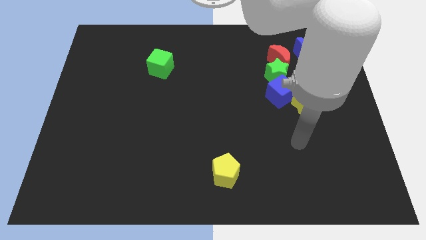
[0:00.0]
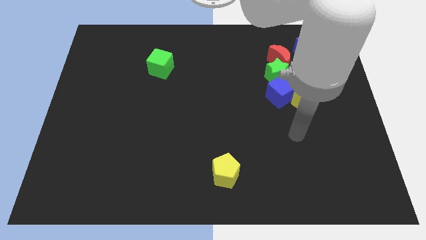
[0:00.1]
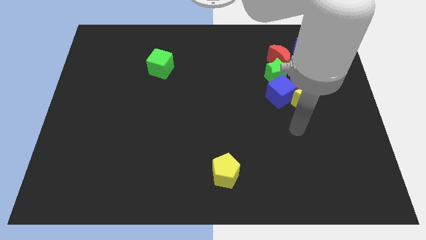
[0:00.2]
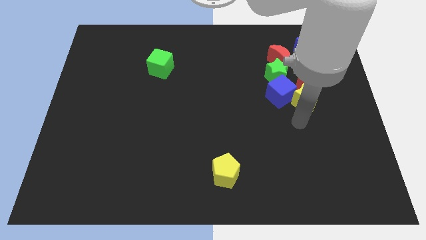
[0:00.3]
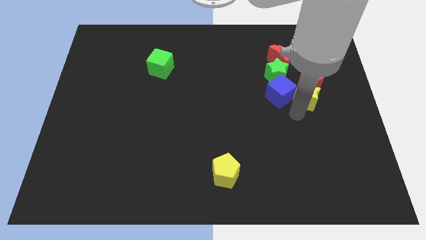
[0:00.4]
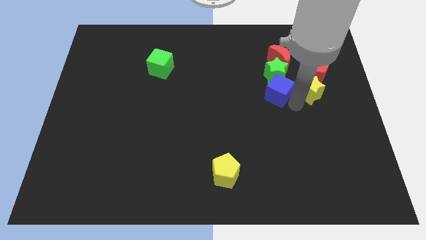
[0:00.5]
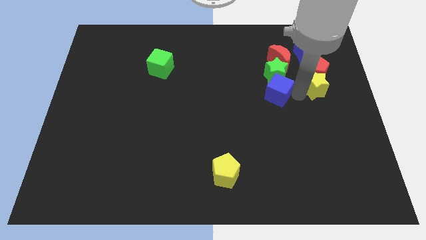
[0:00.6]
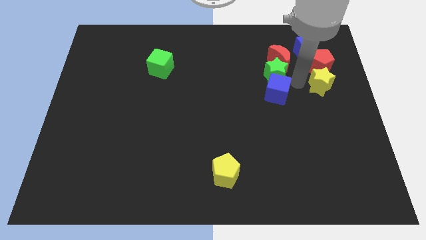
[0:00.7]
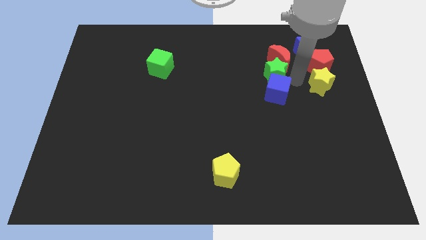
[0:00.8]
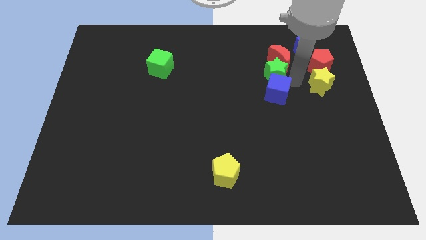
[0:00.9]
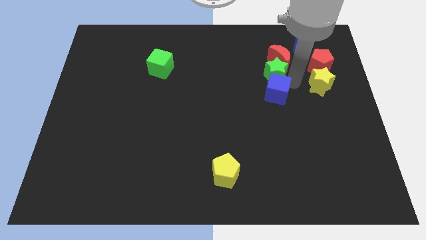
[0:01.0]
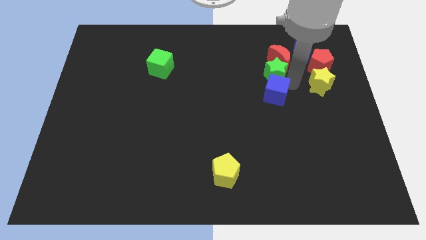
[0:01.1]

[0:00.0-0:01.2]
move the blue cube away from the clump

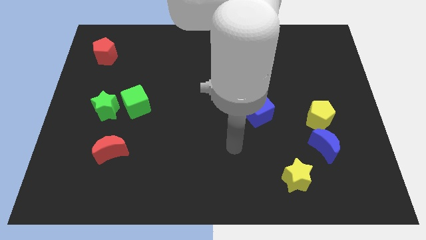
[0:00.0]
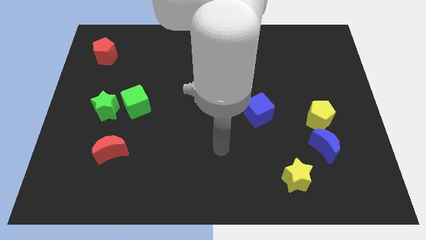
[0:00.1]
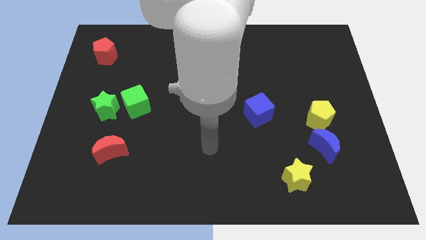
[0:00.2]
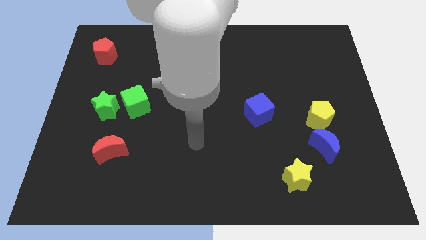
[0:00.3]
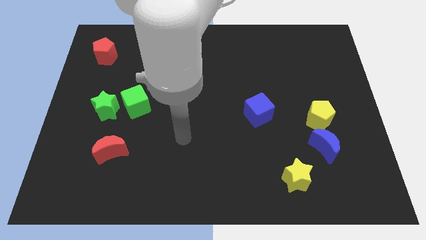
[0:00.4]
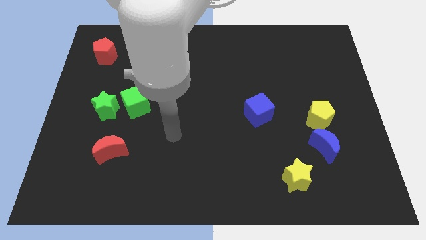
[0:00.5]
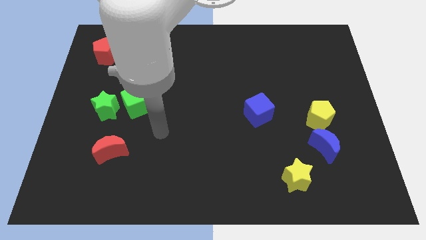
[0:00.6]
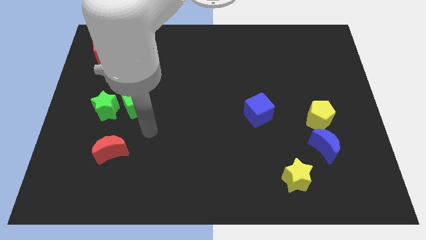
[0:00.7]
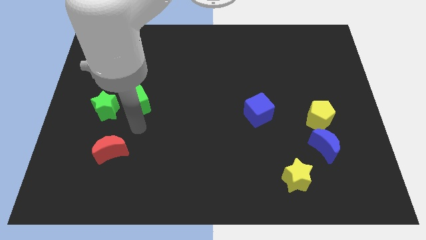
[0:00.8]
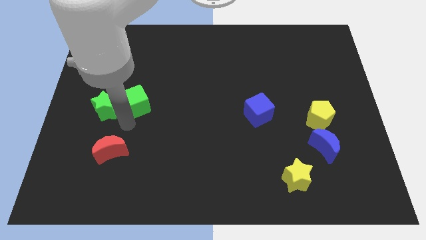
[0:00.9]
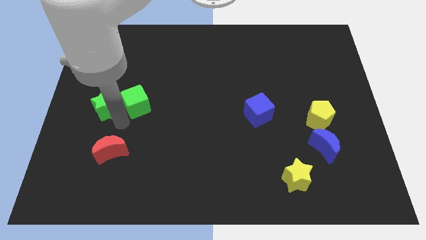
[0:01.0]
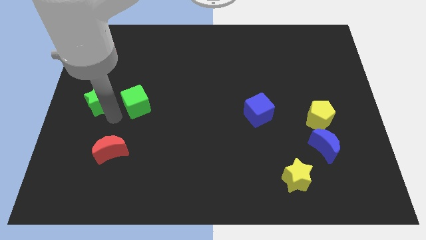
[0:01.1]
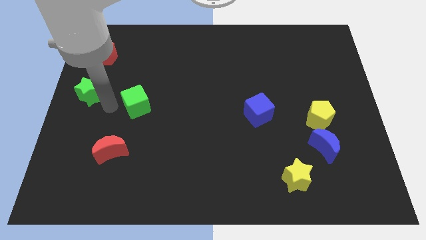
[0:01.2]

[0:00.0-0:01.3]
separate the green cube from the green star

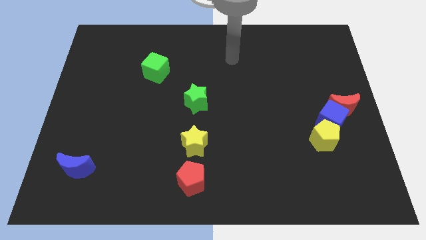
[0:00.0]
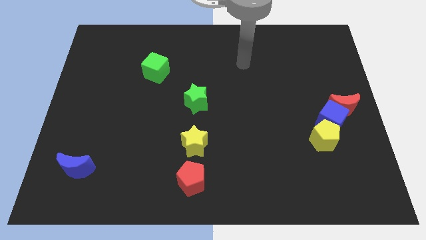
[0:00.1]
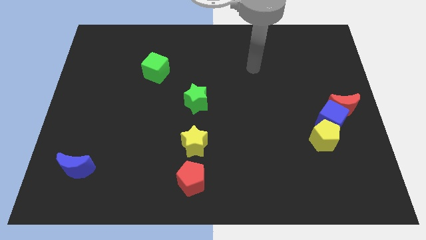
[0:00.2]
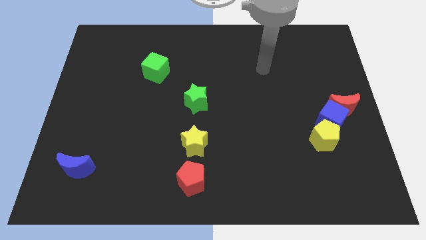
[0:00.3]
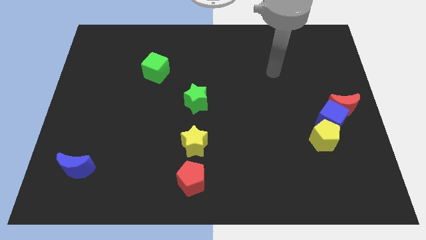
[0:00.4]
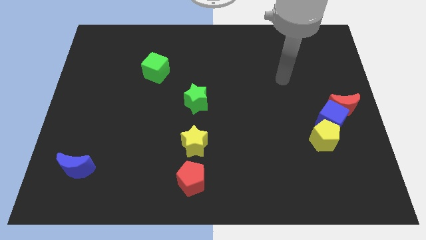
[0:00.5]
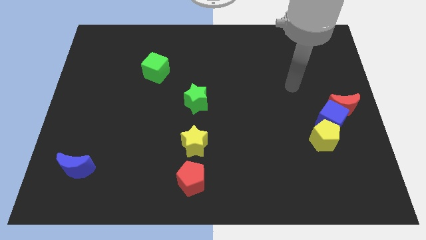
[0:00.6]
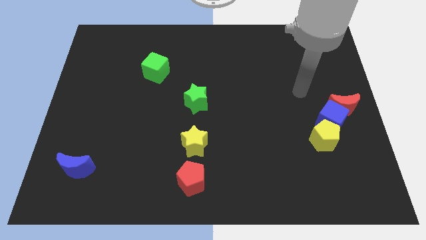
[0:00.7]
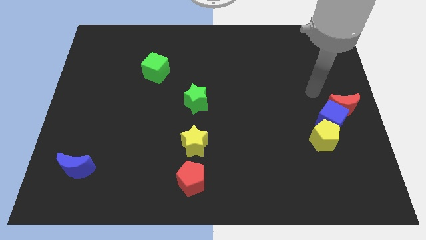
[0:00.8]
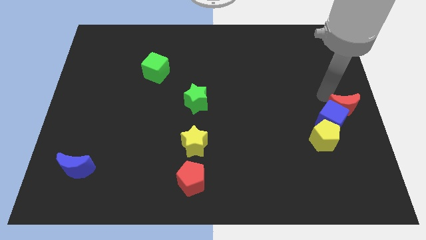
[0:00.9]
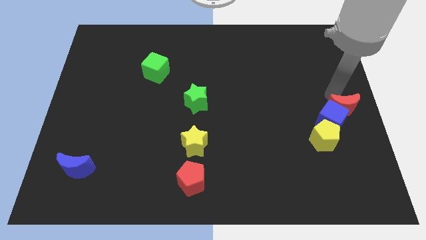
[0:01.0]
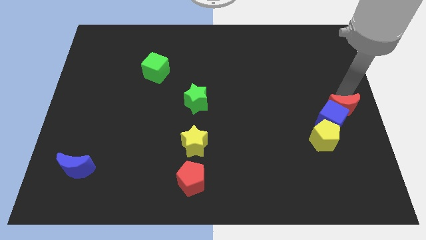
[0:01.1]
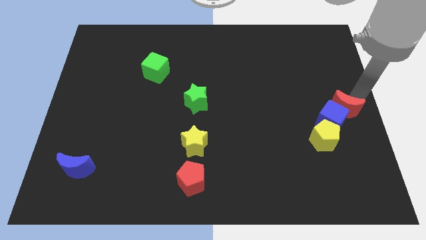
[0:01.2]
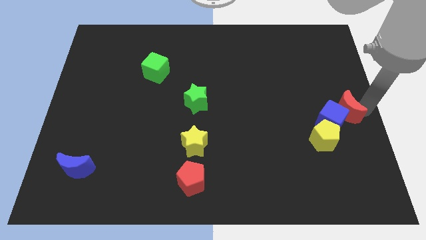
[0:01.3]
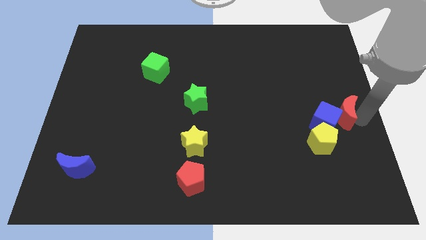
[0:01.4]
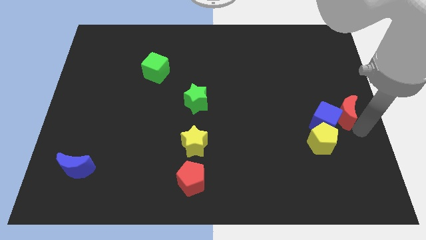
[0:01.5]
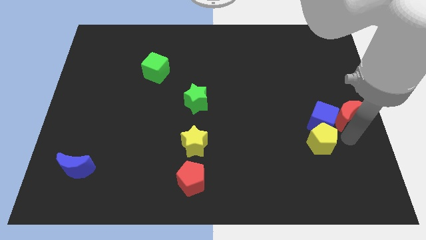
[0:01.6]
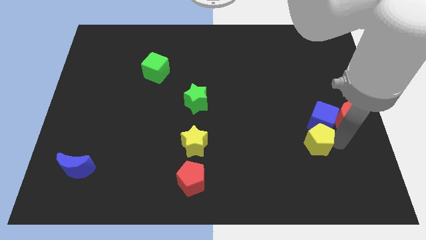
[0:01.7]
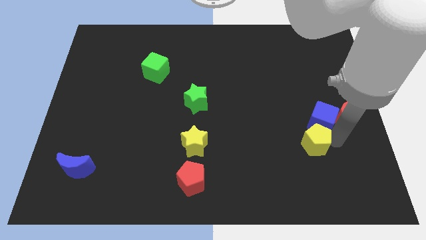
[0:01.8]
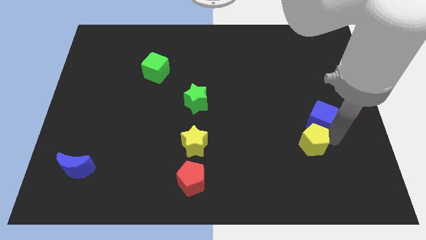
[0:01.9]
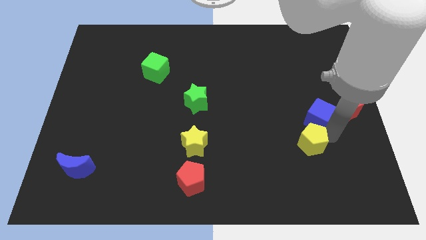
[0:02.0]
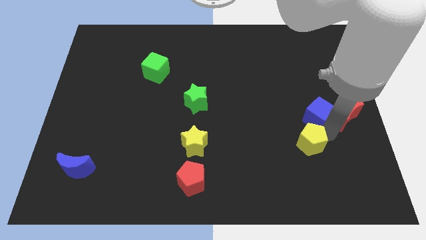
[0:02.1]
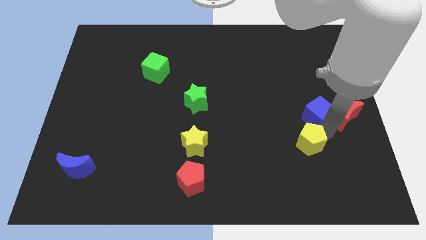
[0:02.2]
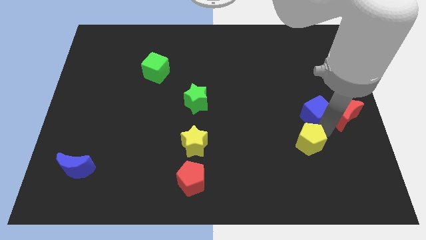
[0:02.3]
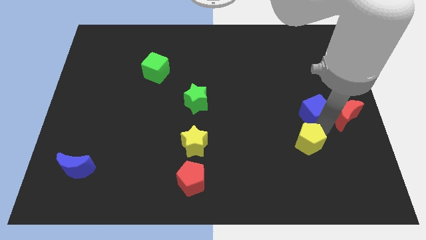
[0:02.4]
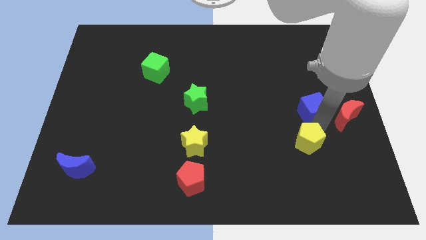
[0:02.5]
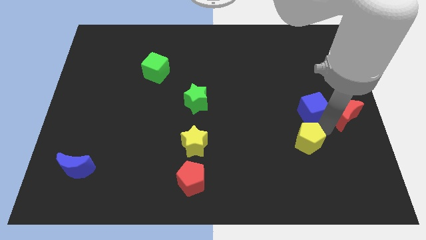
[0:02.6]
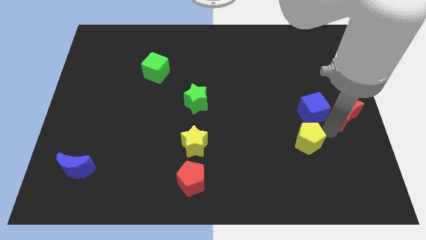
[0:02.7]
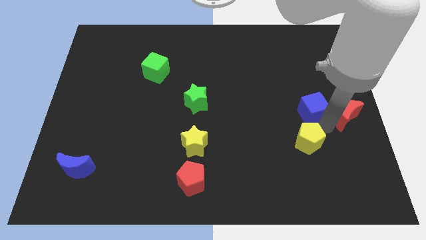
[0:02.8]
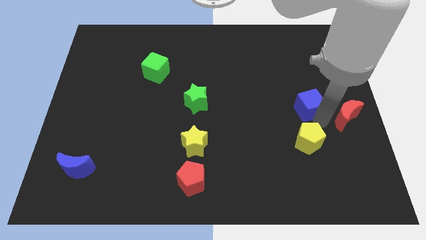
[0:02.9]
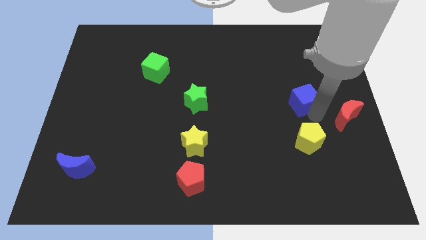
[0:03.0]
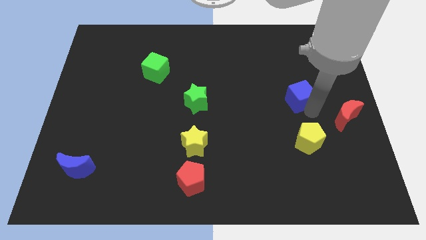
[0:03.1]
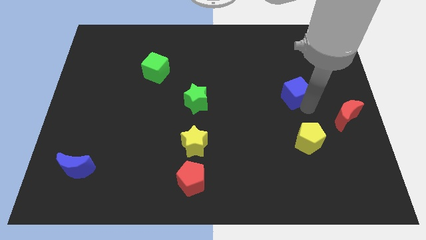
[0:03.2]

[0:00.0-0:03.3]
separate the blue cube from the red moon and yellow pentagon

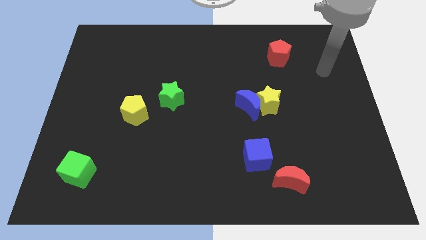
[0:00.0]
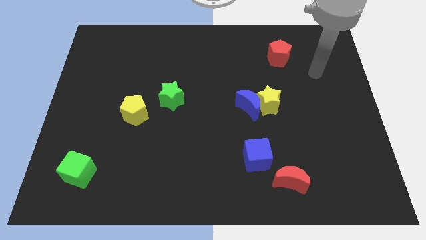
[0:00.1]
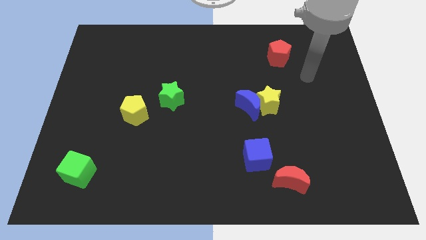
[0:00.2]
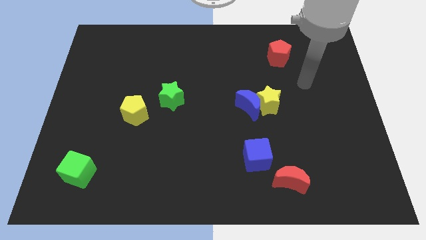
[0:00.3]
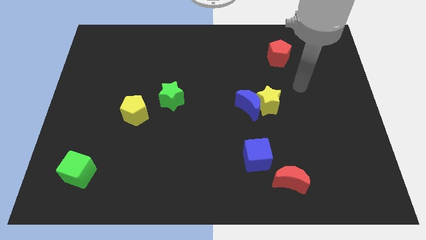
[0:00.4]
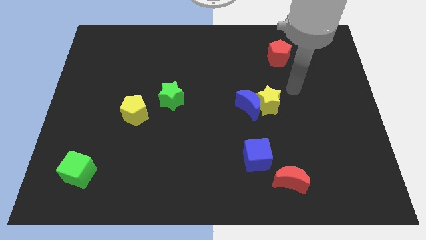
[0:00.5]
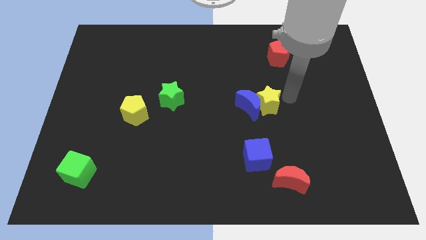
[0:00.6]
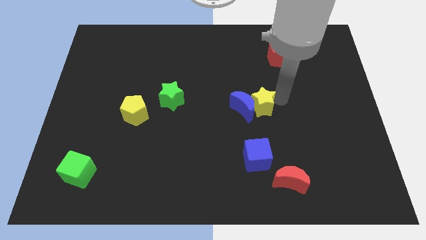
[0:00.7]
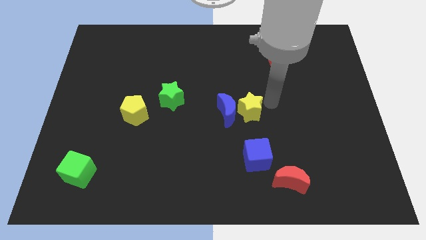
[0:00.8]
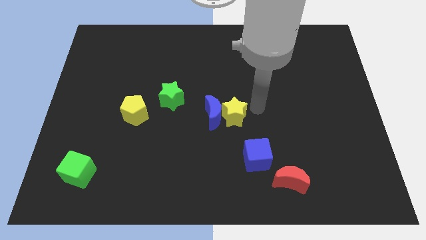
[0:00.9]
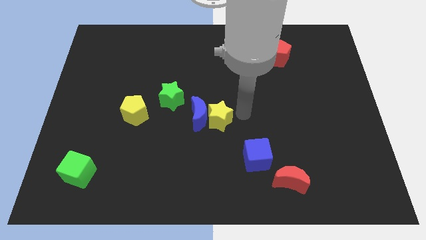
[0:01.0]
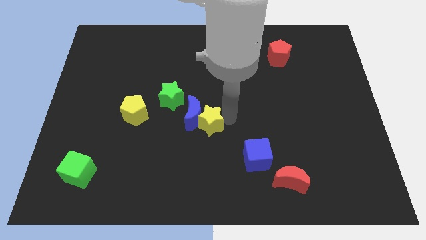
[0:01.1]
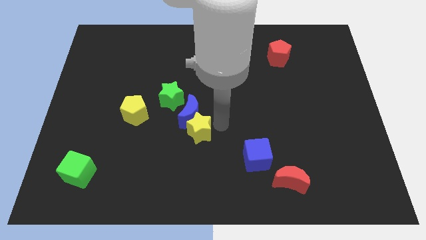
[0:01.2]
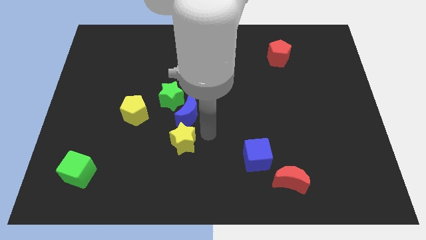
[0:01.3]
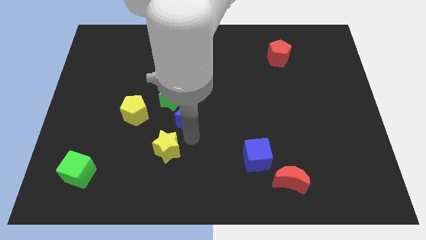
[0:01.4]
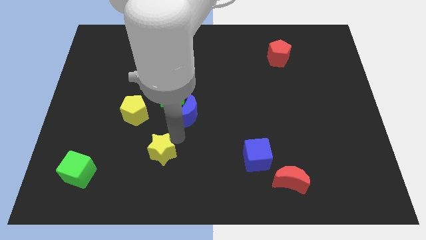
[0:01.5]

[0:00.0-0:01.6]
pull the blue moon apart from the yellow star

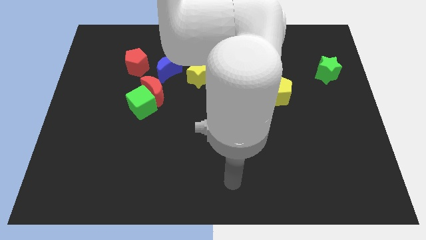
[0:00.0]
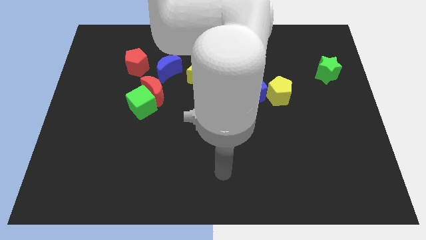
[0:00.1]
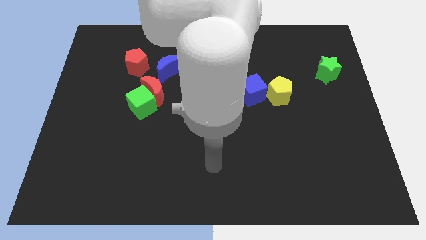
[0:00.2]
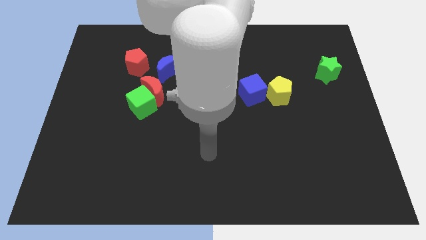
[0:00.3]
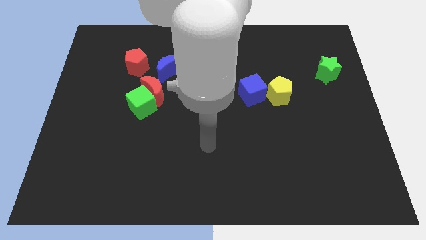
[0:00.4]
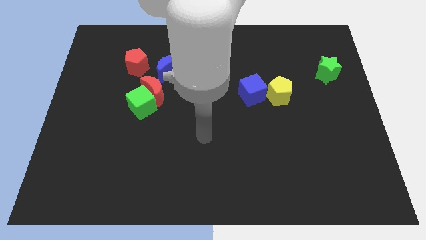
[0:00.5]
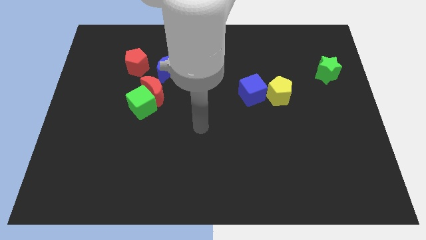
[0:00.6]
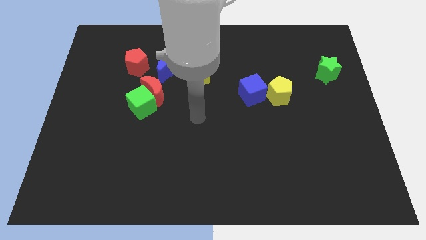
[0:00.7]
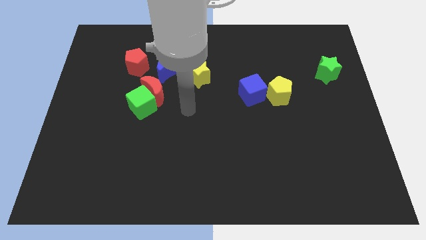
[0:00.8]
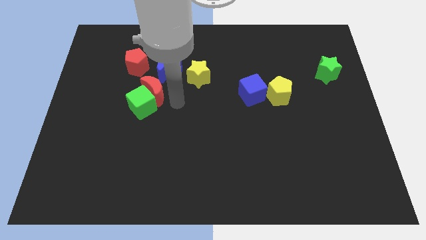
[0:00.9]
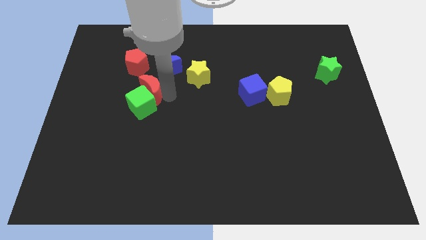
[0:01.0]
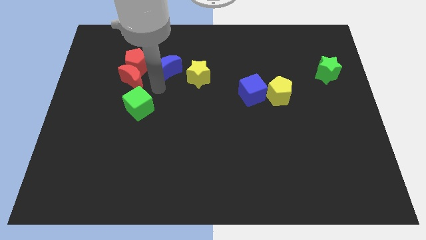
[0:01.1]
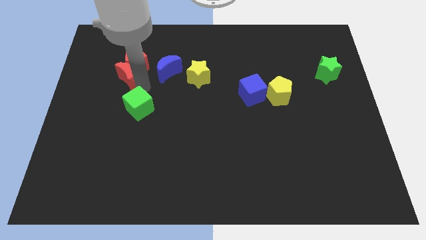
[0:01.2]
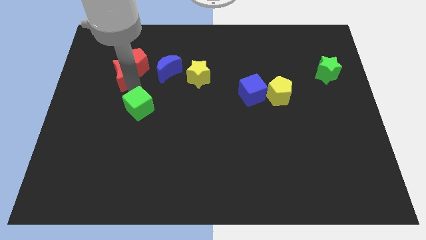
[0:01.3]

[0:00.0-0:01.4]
separate the green cube from the red moon

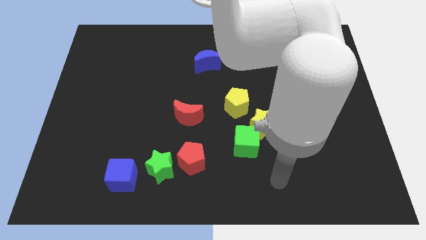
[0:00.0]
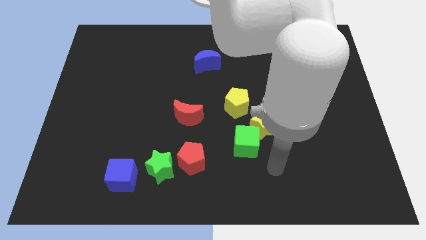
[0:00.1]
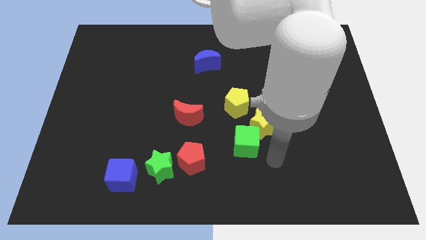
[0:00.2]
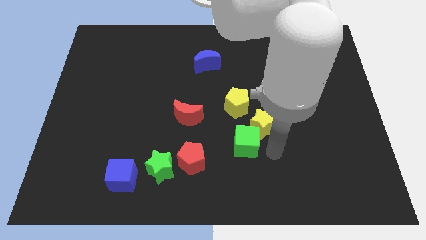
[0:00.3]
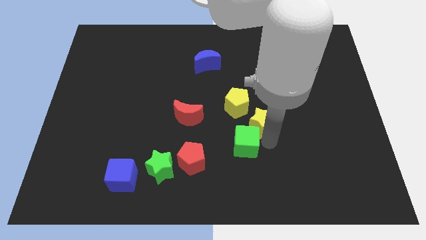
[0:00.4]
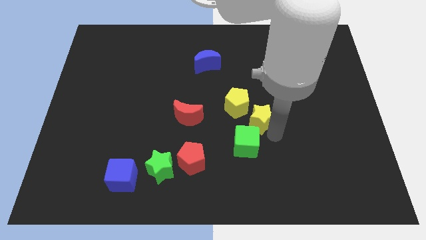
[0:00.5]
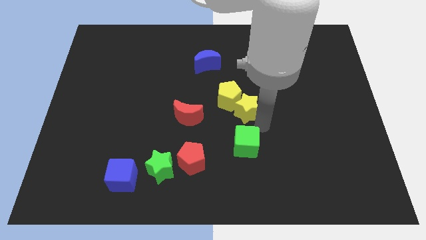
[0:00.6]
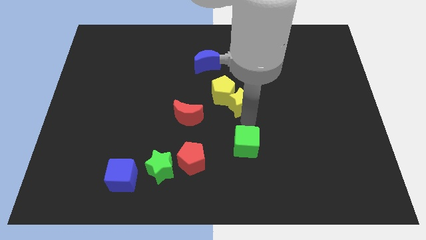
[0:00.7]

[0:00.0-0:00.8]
move the green cube away from the yellow star
